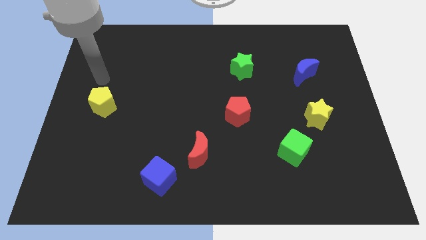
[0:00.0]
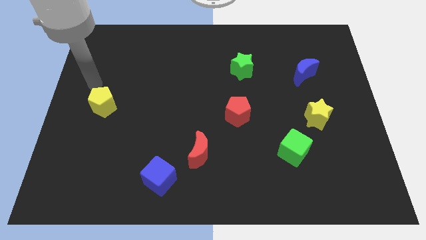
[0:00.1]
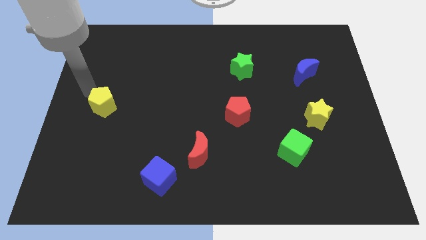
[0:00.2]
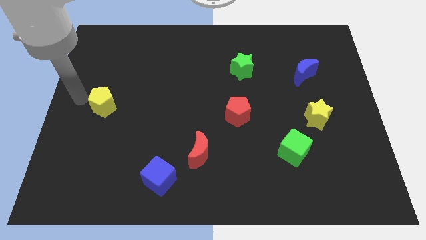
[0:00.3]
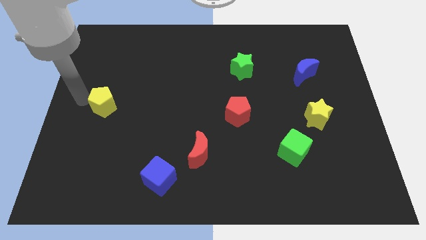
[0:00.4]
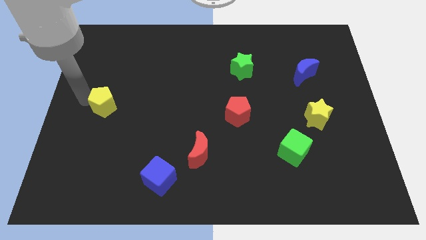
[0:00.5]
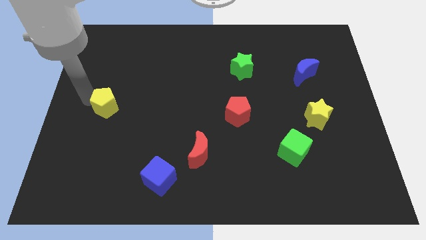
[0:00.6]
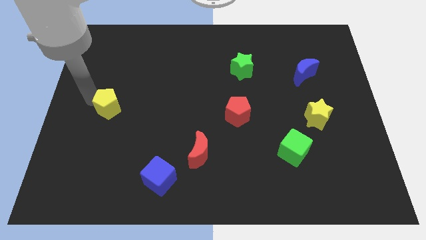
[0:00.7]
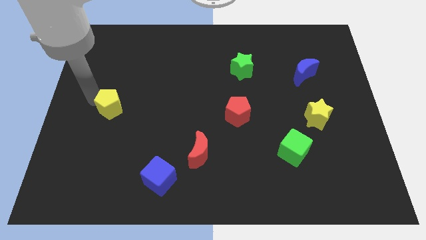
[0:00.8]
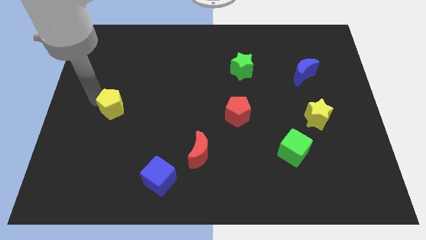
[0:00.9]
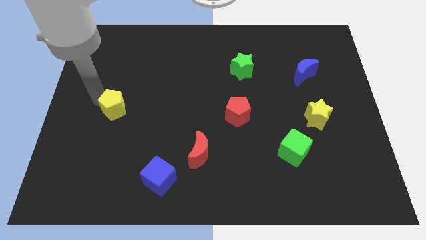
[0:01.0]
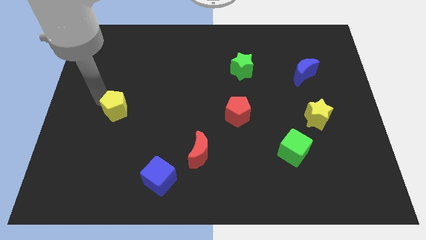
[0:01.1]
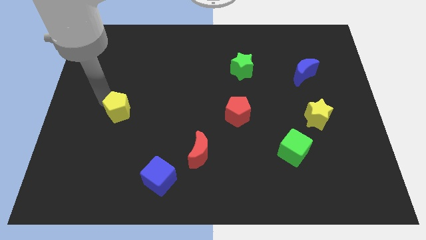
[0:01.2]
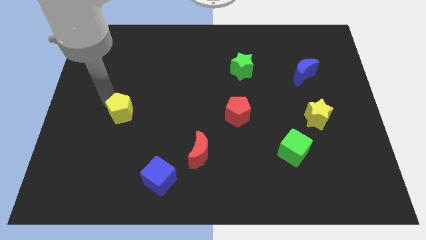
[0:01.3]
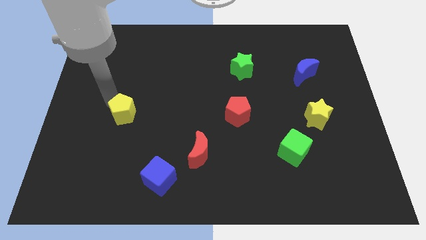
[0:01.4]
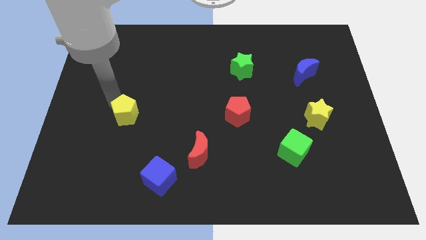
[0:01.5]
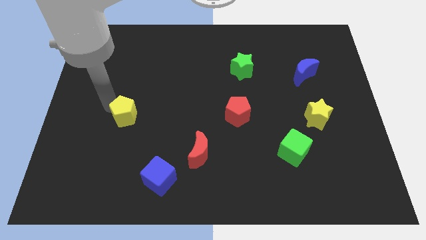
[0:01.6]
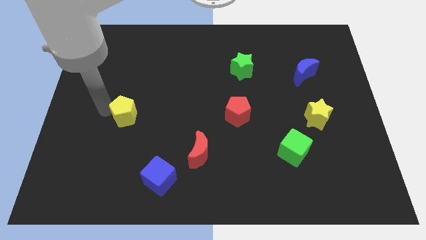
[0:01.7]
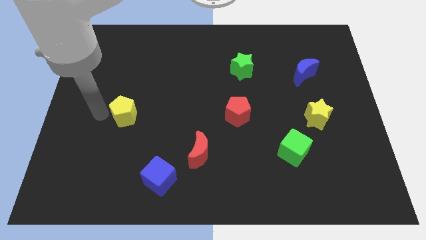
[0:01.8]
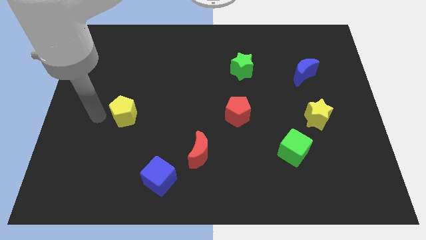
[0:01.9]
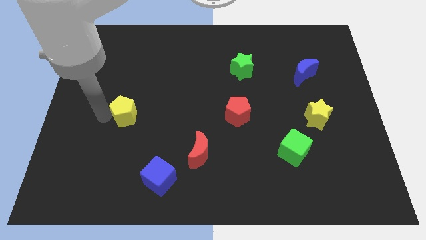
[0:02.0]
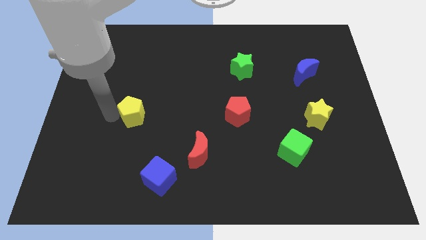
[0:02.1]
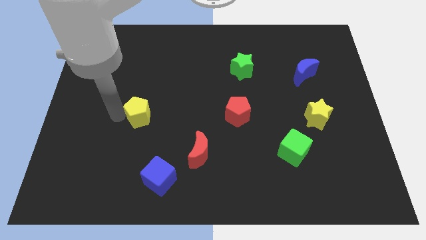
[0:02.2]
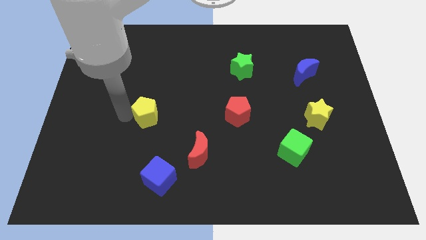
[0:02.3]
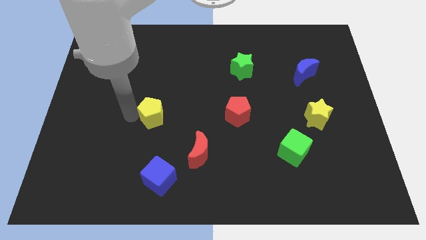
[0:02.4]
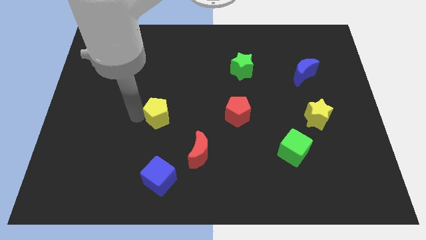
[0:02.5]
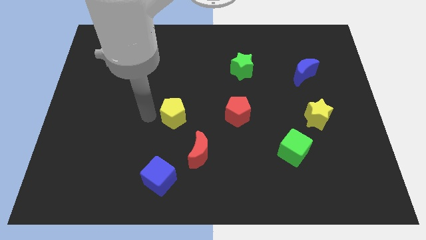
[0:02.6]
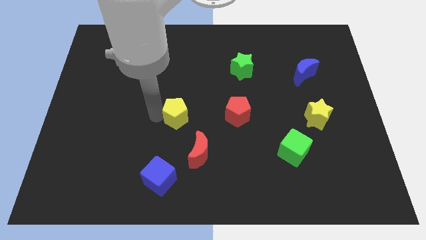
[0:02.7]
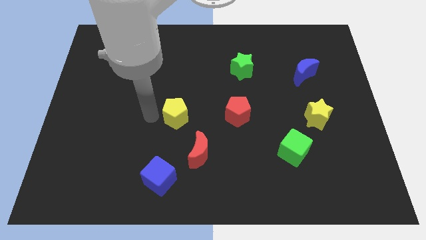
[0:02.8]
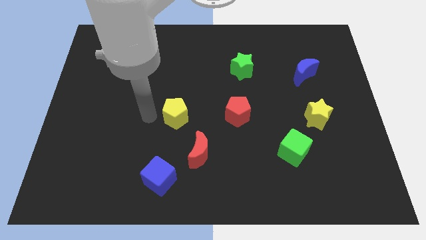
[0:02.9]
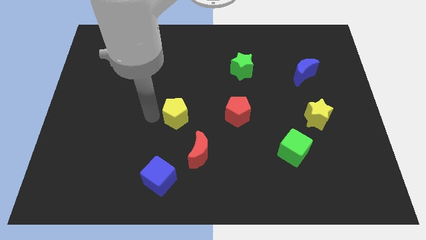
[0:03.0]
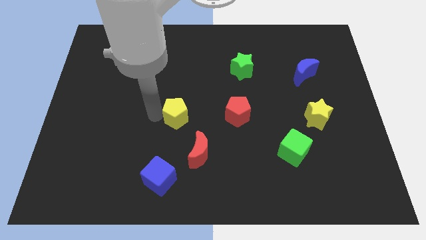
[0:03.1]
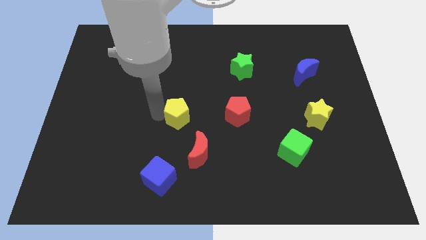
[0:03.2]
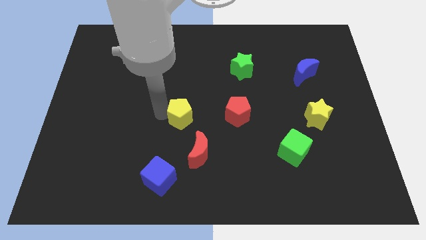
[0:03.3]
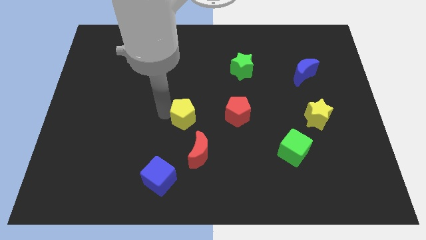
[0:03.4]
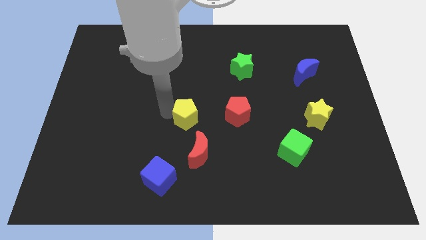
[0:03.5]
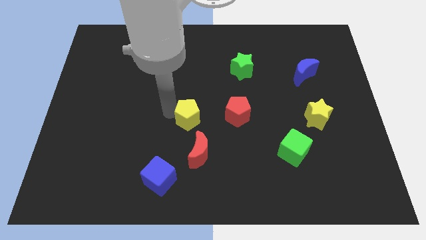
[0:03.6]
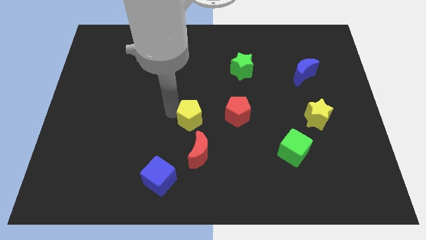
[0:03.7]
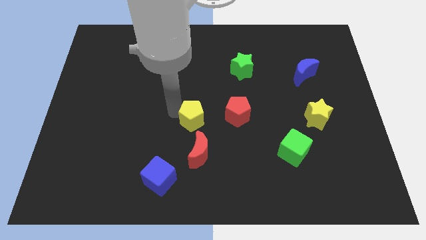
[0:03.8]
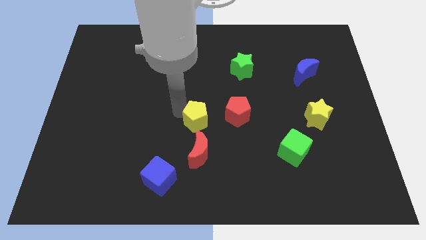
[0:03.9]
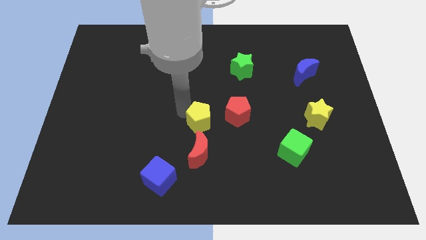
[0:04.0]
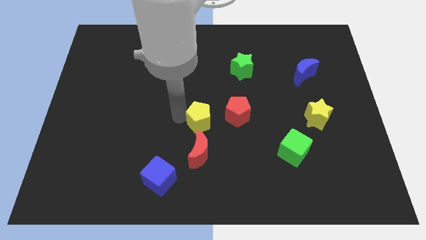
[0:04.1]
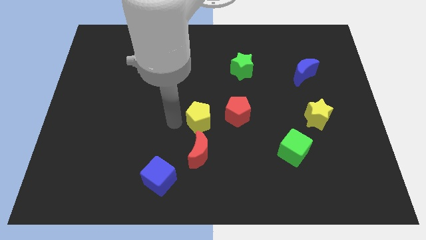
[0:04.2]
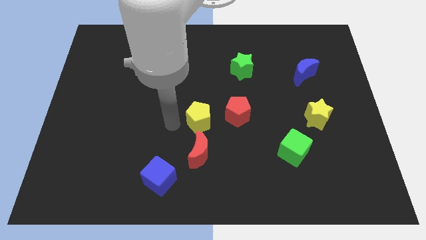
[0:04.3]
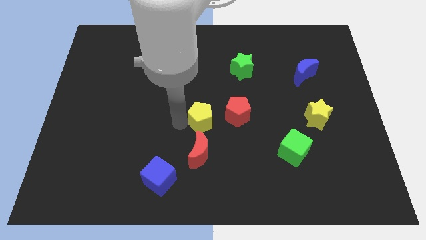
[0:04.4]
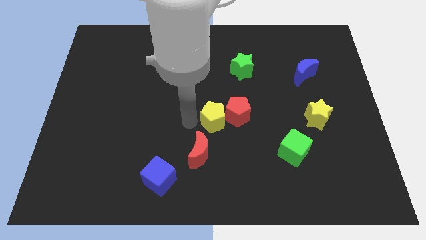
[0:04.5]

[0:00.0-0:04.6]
move the yellow pentagon towards the red pentagon

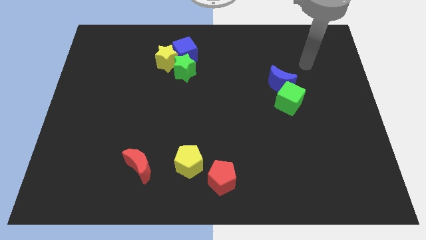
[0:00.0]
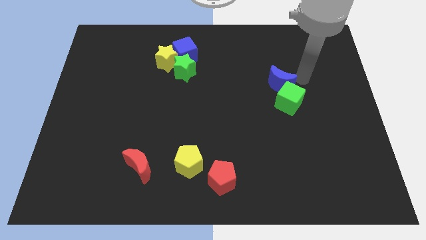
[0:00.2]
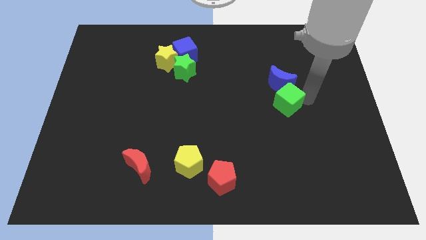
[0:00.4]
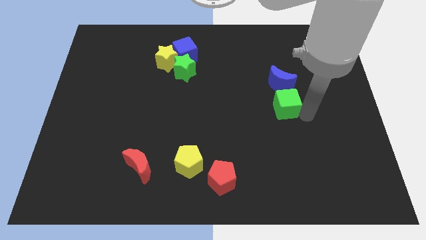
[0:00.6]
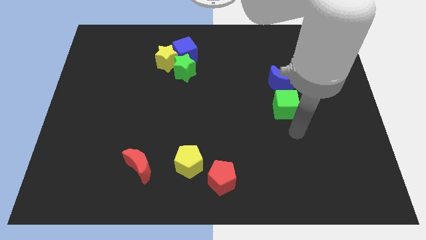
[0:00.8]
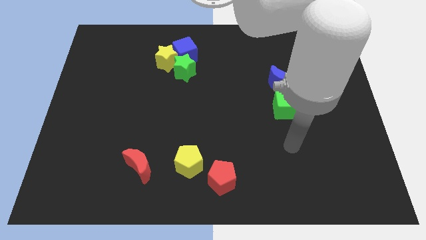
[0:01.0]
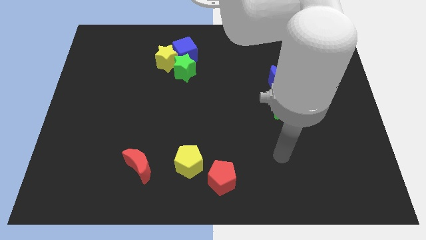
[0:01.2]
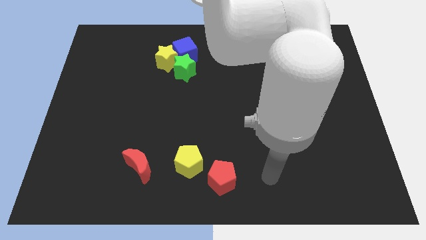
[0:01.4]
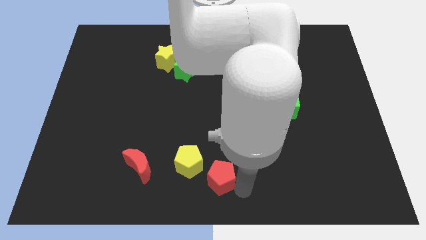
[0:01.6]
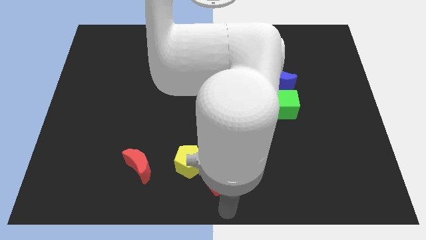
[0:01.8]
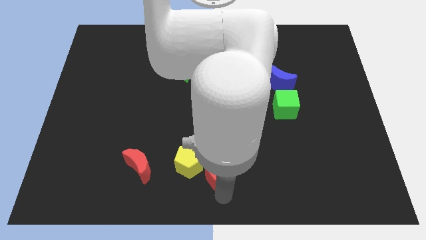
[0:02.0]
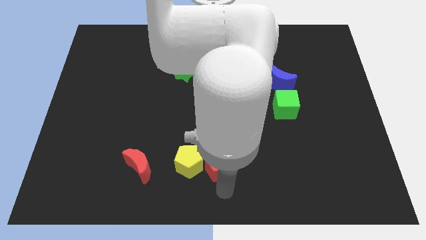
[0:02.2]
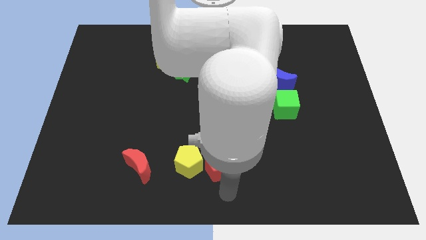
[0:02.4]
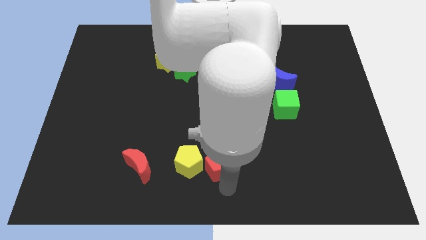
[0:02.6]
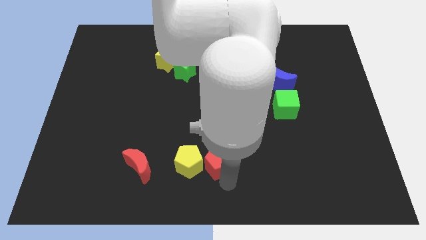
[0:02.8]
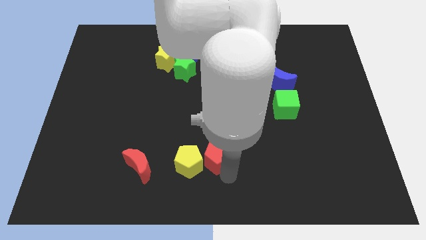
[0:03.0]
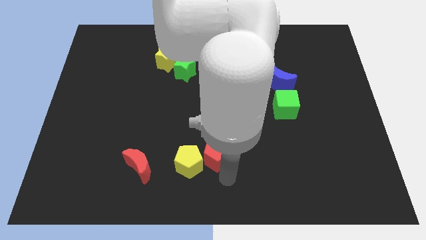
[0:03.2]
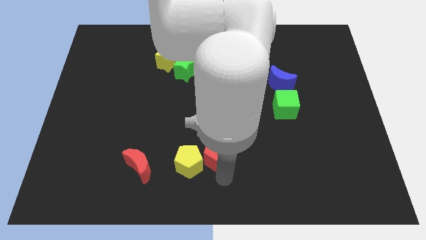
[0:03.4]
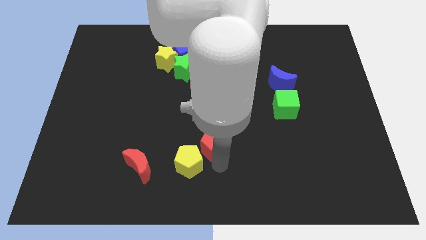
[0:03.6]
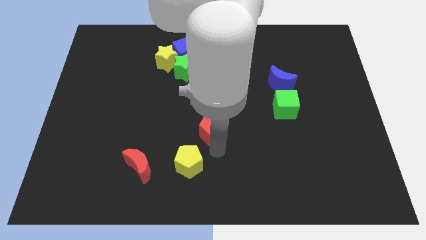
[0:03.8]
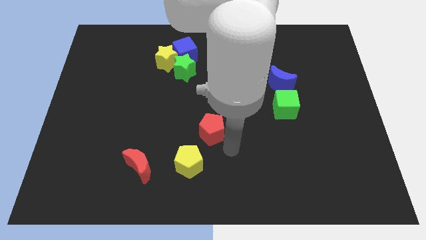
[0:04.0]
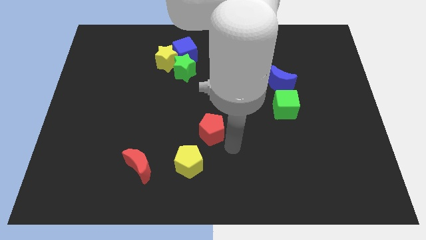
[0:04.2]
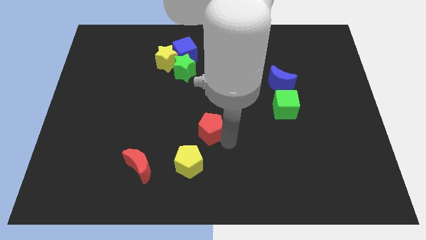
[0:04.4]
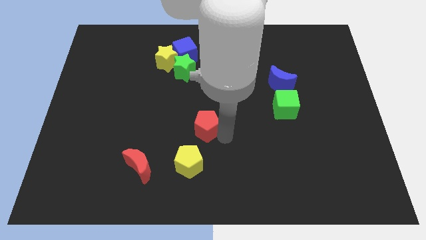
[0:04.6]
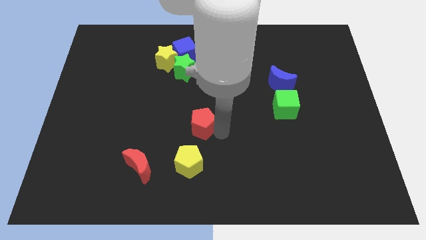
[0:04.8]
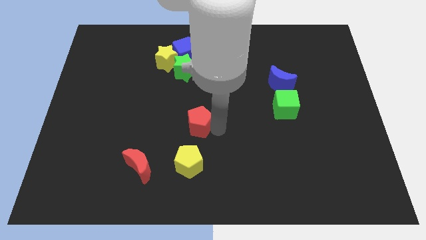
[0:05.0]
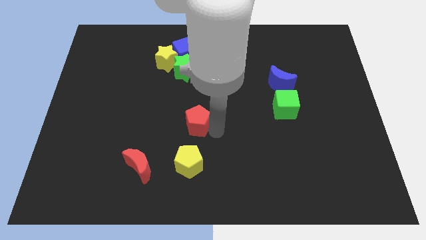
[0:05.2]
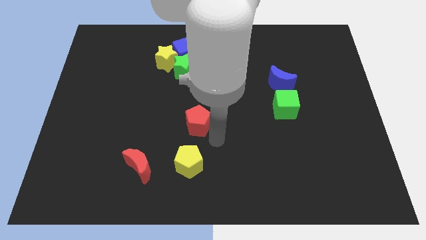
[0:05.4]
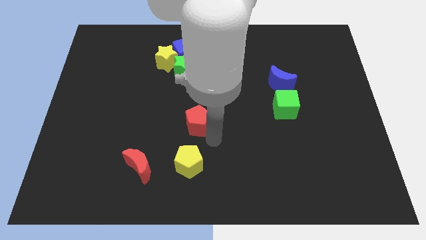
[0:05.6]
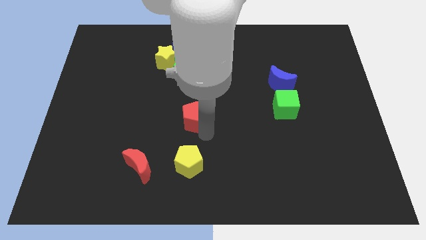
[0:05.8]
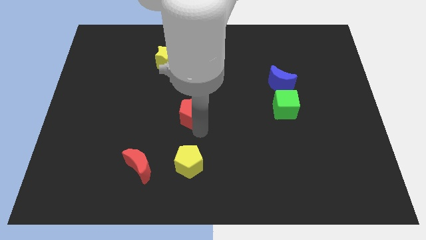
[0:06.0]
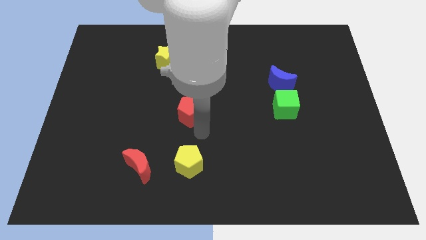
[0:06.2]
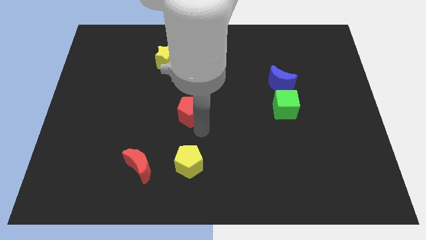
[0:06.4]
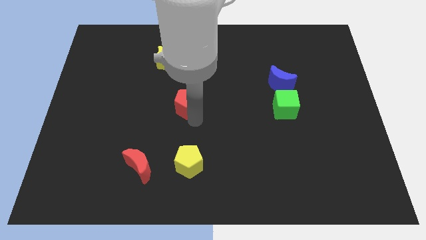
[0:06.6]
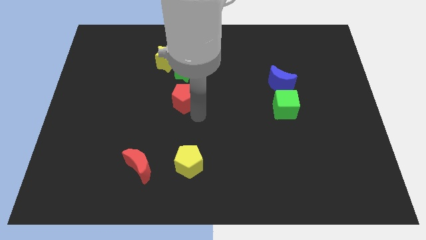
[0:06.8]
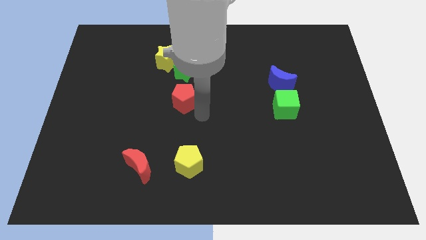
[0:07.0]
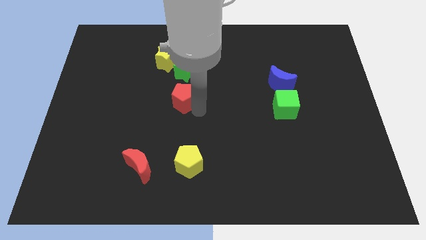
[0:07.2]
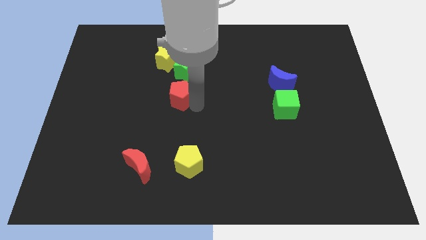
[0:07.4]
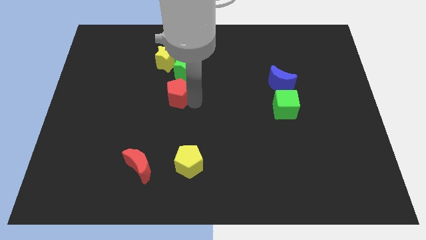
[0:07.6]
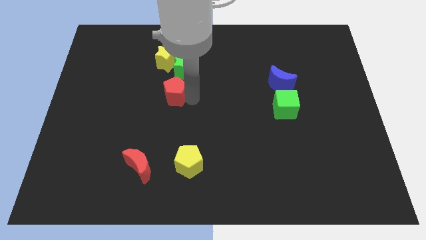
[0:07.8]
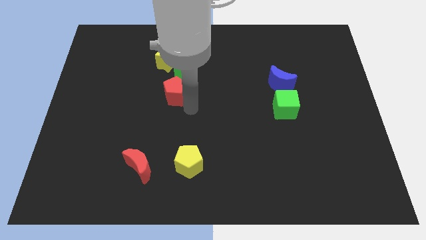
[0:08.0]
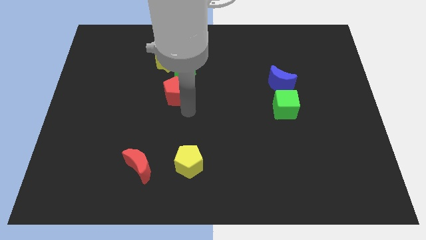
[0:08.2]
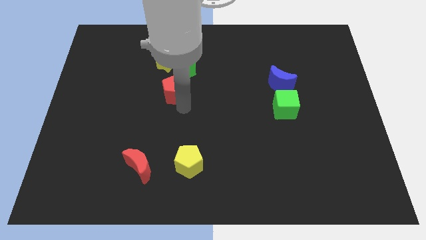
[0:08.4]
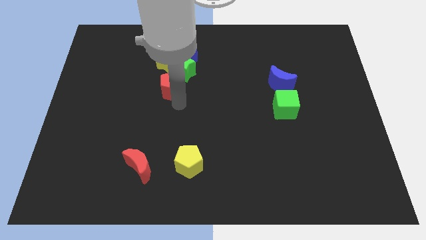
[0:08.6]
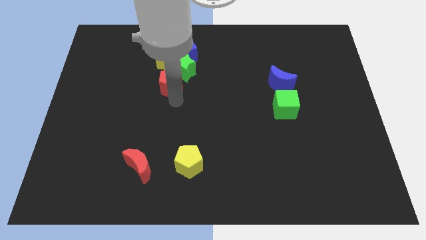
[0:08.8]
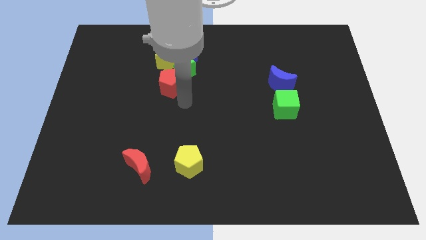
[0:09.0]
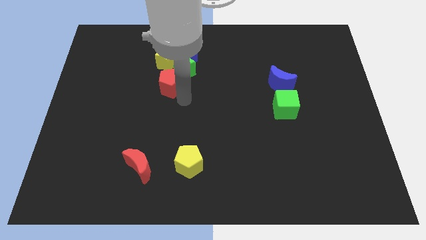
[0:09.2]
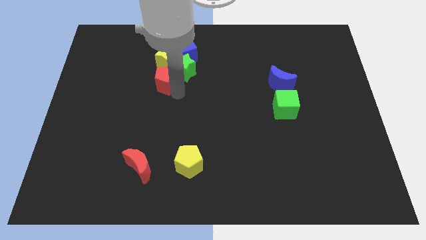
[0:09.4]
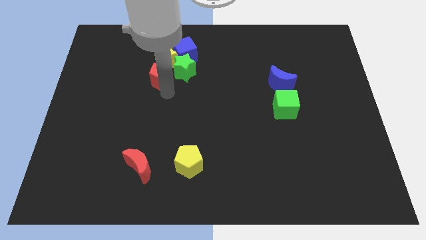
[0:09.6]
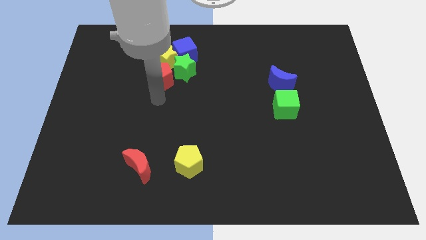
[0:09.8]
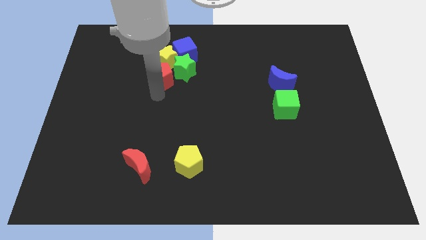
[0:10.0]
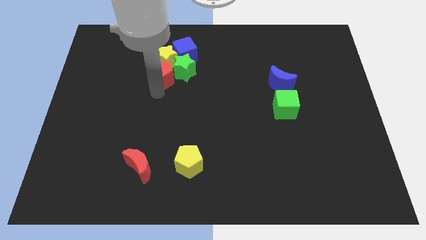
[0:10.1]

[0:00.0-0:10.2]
put the red pentagon next to the yellow star
